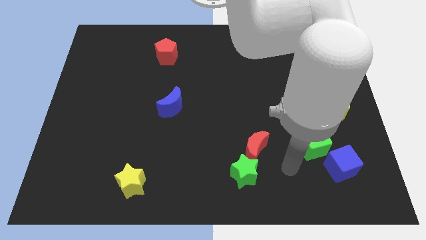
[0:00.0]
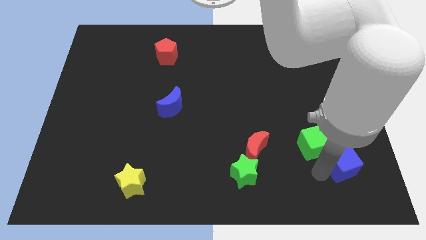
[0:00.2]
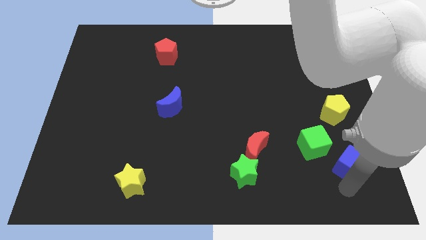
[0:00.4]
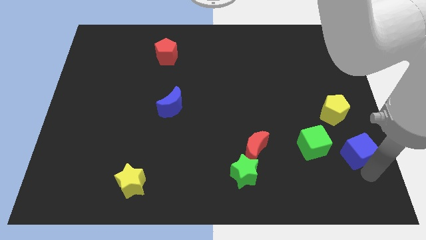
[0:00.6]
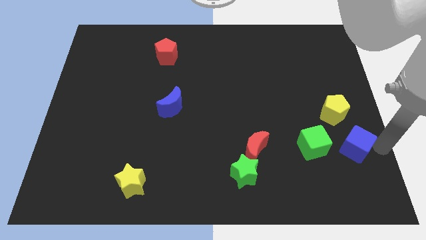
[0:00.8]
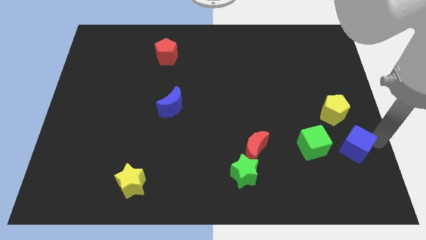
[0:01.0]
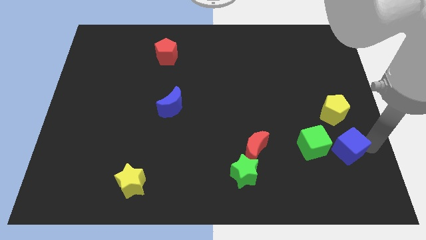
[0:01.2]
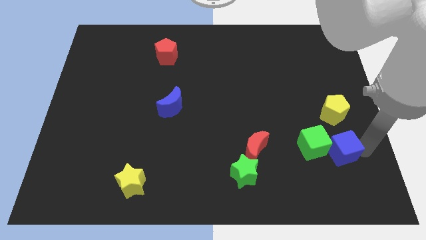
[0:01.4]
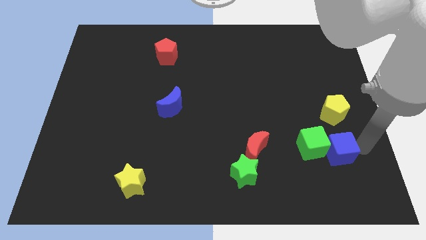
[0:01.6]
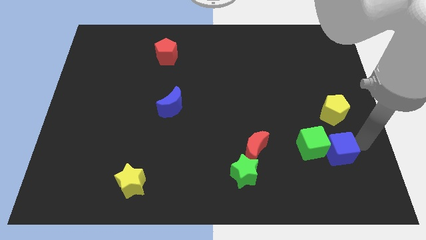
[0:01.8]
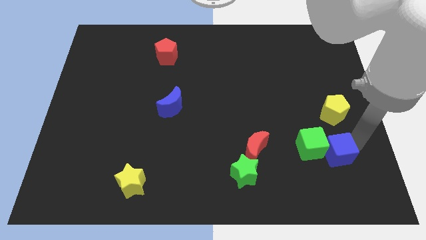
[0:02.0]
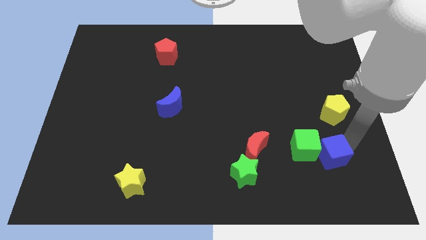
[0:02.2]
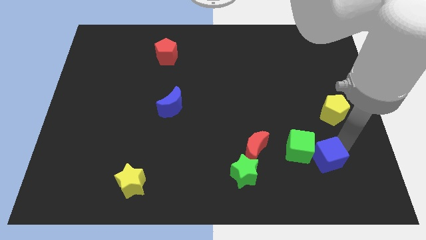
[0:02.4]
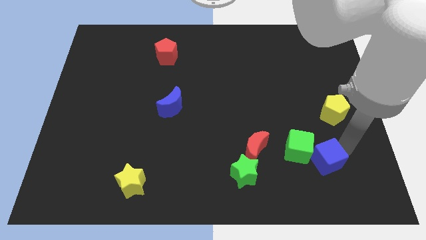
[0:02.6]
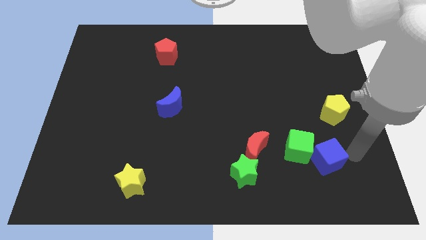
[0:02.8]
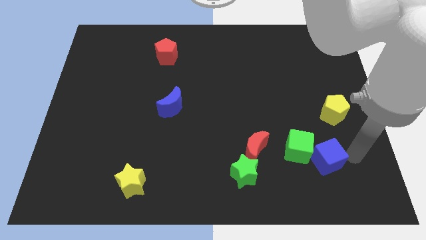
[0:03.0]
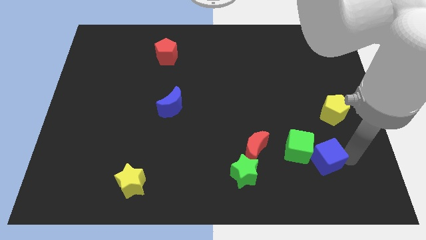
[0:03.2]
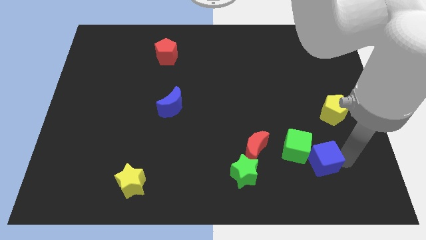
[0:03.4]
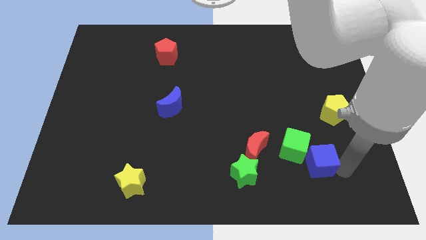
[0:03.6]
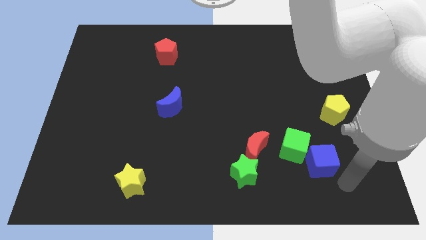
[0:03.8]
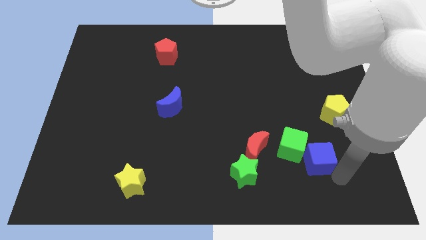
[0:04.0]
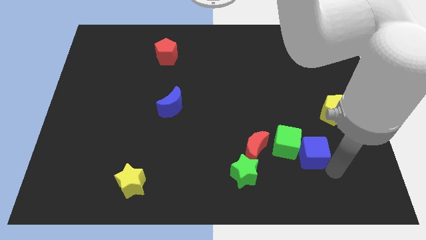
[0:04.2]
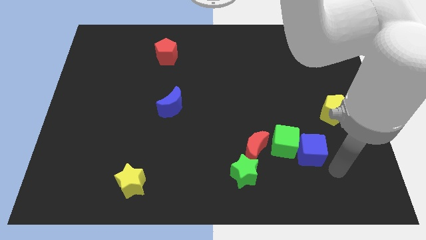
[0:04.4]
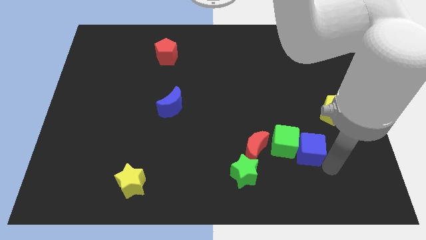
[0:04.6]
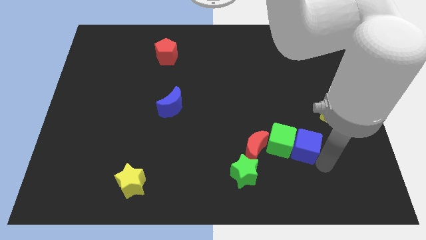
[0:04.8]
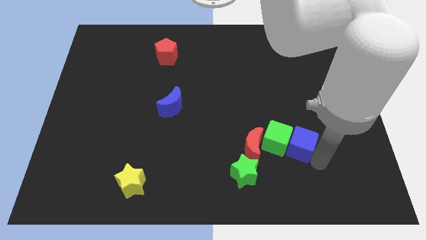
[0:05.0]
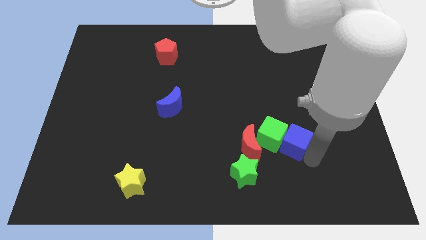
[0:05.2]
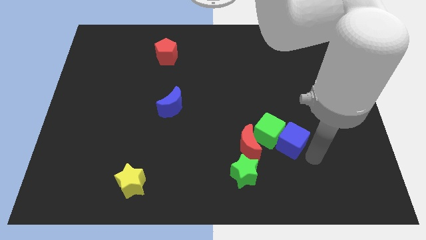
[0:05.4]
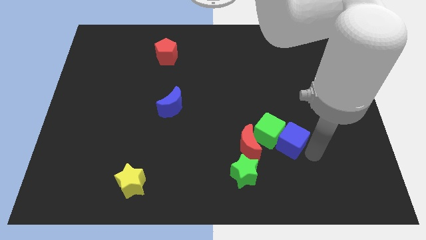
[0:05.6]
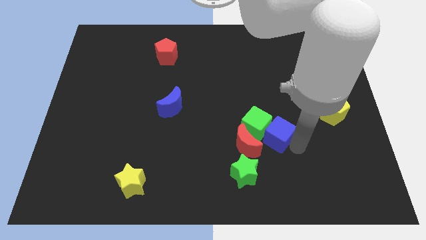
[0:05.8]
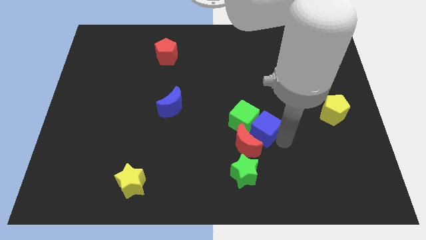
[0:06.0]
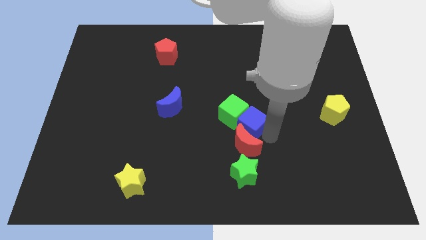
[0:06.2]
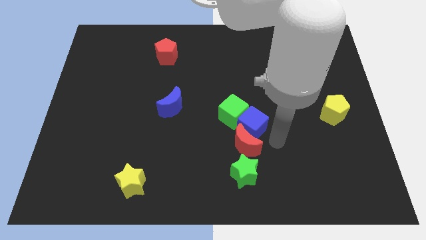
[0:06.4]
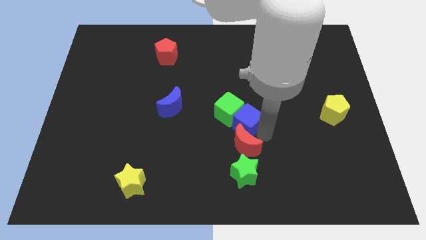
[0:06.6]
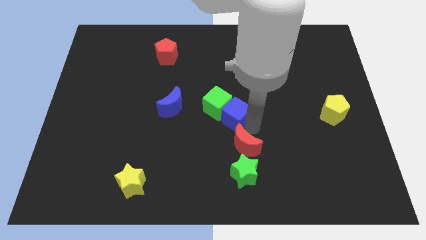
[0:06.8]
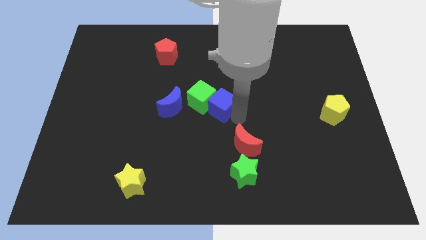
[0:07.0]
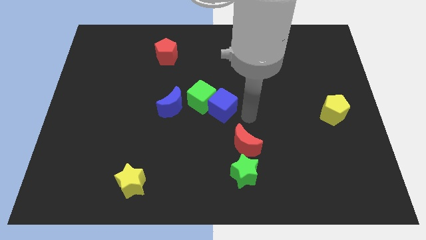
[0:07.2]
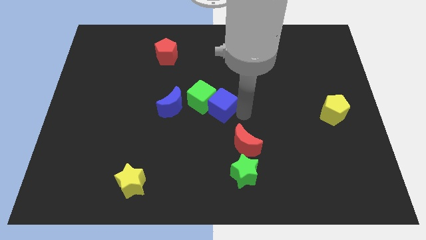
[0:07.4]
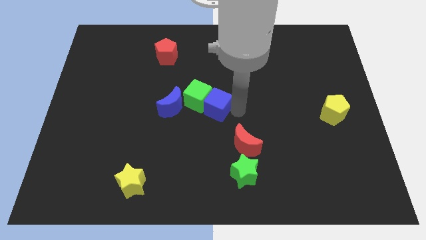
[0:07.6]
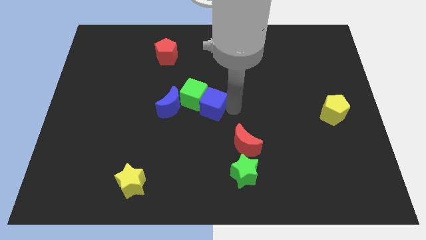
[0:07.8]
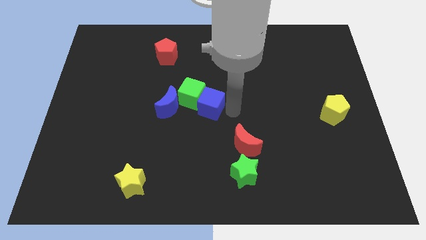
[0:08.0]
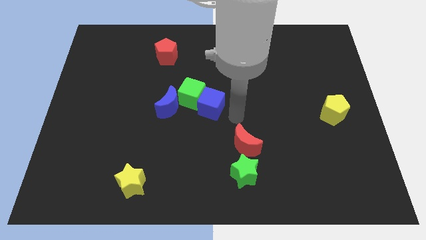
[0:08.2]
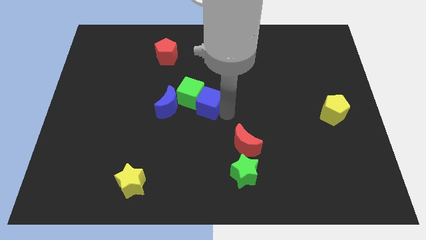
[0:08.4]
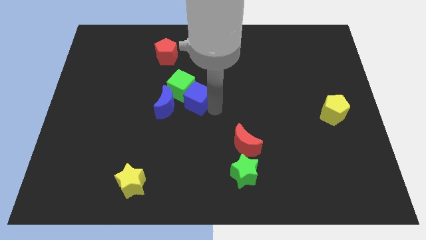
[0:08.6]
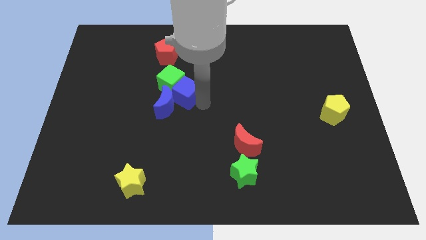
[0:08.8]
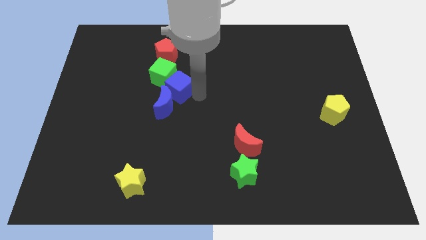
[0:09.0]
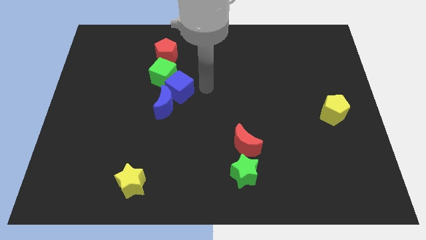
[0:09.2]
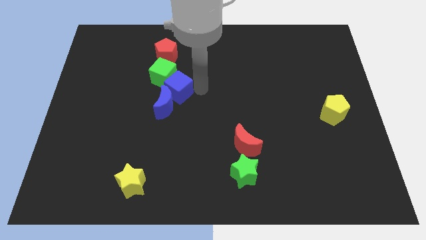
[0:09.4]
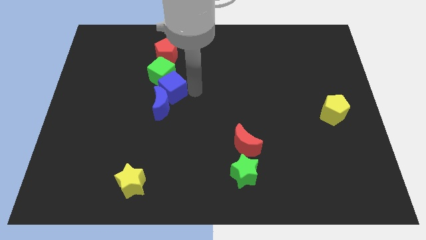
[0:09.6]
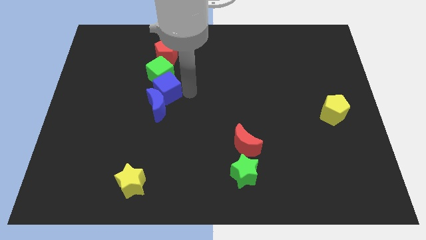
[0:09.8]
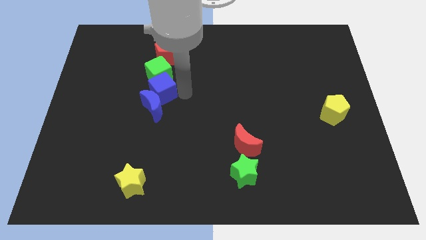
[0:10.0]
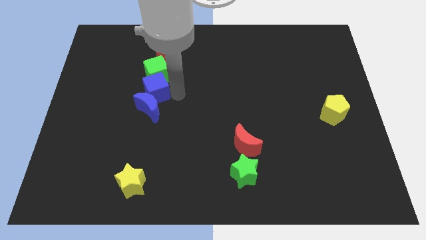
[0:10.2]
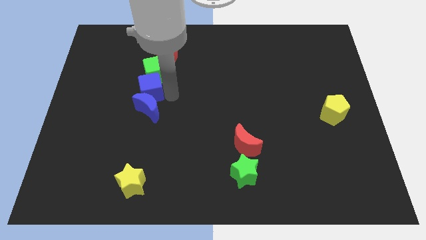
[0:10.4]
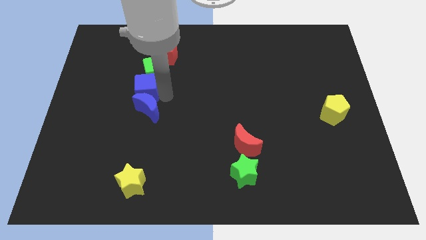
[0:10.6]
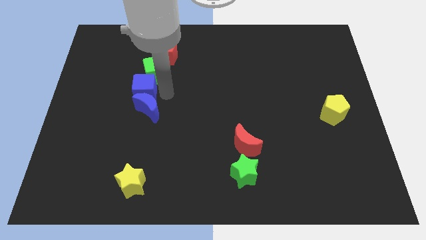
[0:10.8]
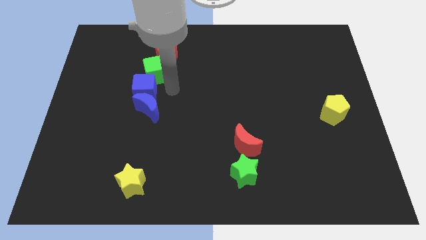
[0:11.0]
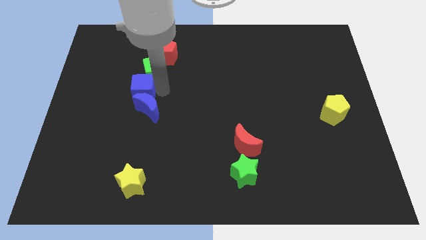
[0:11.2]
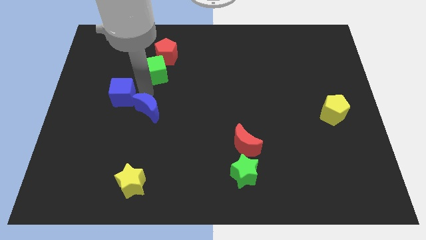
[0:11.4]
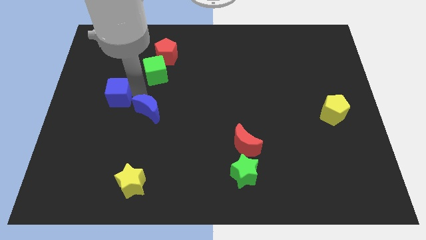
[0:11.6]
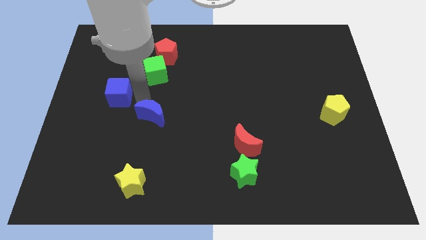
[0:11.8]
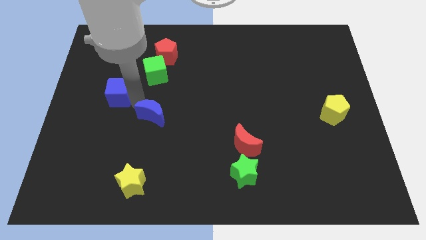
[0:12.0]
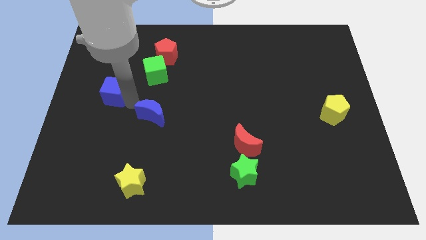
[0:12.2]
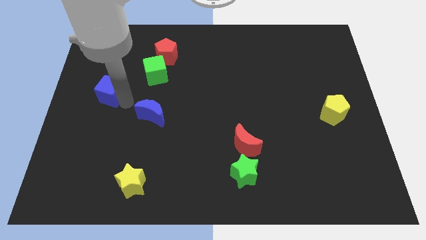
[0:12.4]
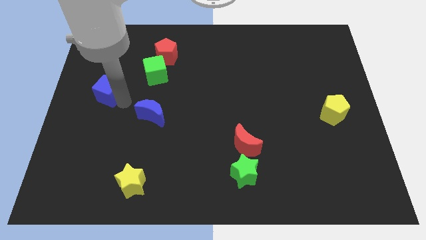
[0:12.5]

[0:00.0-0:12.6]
put the blue cube to the center left

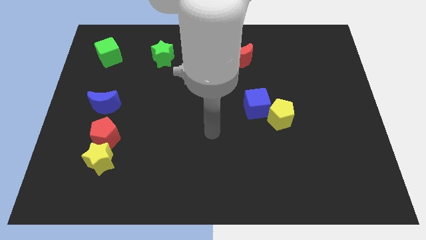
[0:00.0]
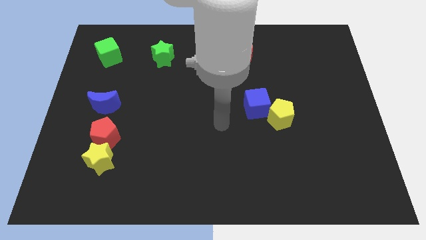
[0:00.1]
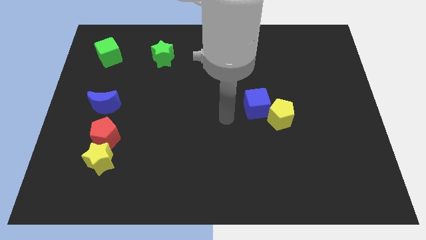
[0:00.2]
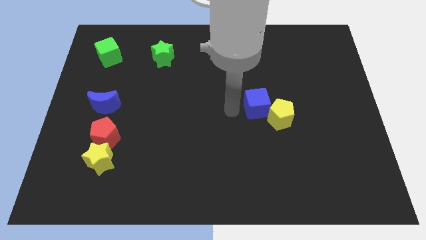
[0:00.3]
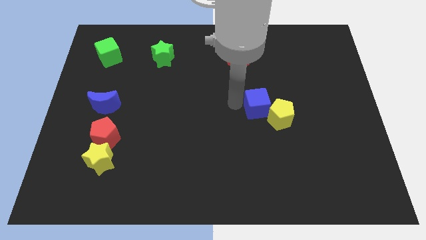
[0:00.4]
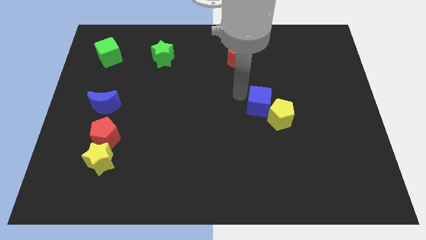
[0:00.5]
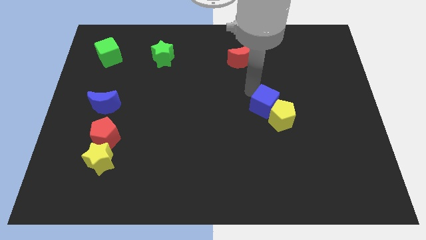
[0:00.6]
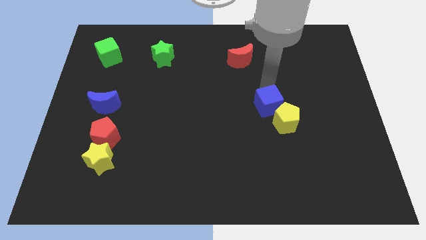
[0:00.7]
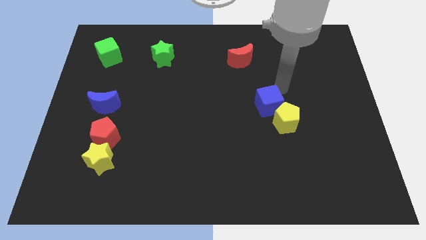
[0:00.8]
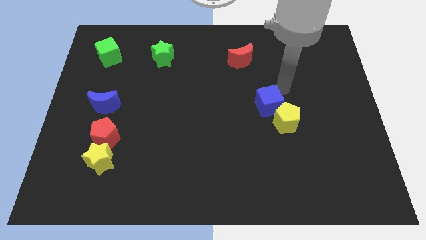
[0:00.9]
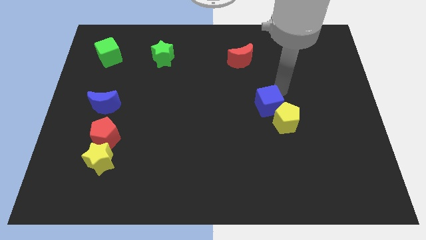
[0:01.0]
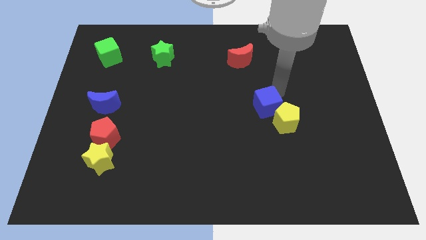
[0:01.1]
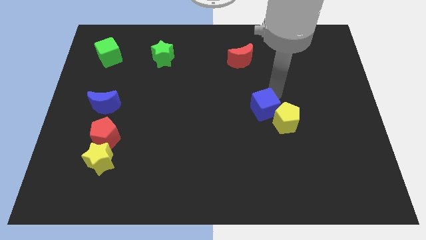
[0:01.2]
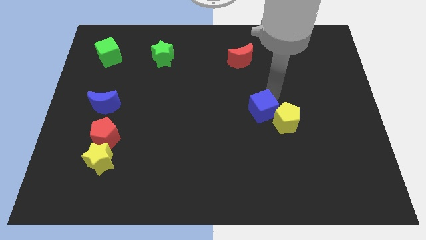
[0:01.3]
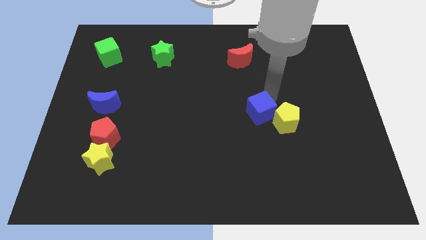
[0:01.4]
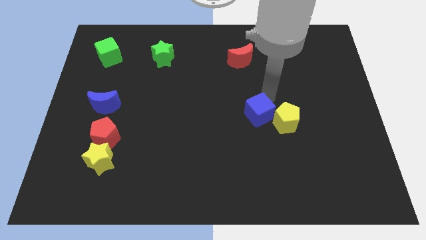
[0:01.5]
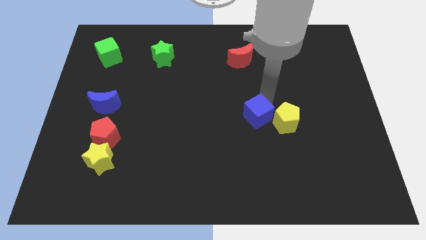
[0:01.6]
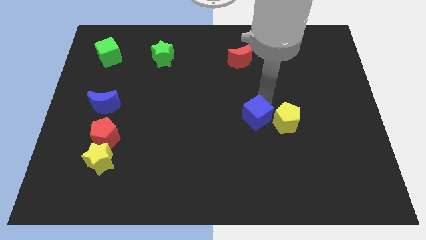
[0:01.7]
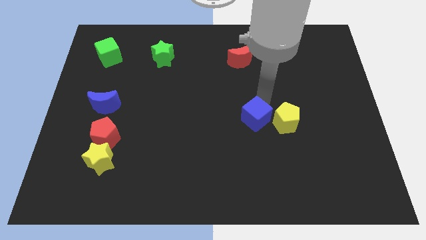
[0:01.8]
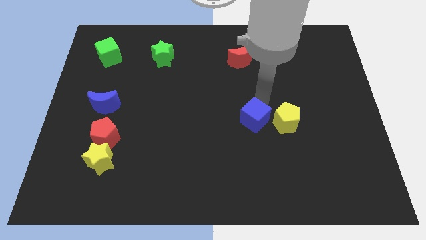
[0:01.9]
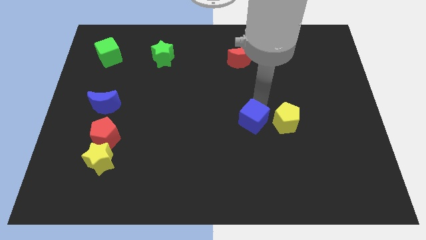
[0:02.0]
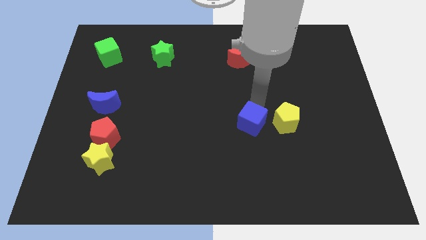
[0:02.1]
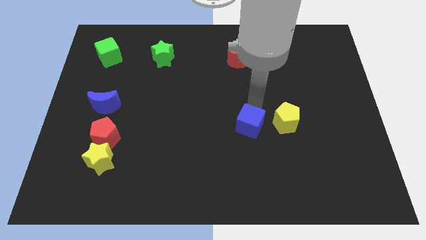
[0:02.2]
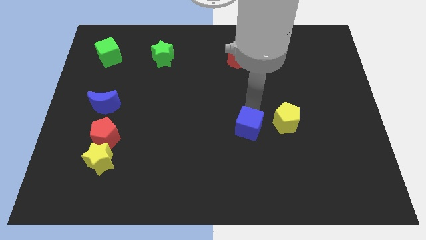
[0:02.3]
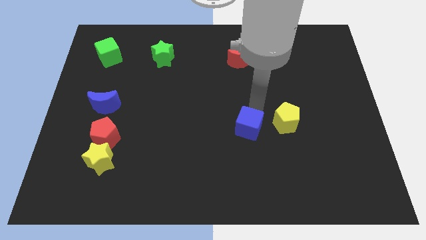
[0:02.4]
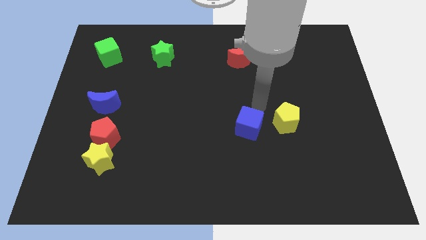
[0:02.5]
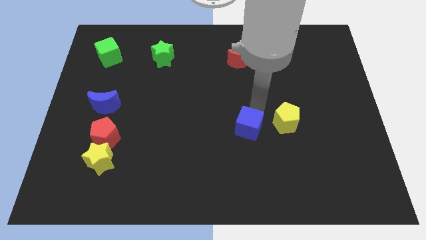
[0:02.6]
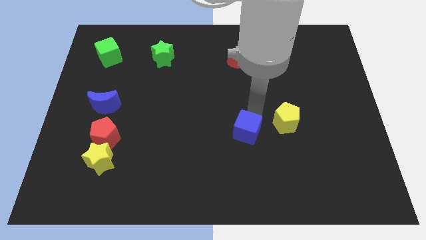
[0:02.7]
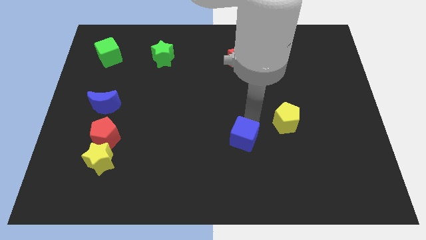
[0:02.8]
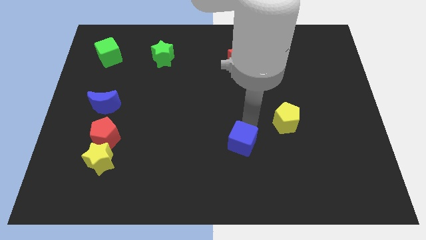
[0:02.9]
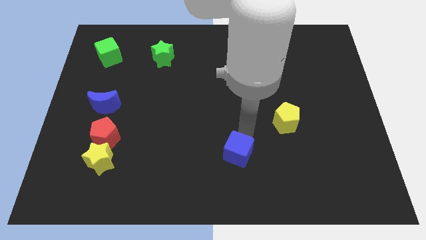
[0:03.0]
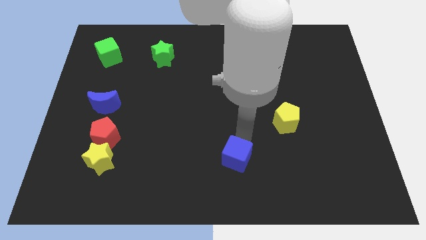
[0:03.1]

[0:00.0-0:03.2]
move the blue cube to the bottom side
